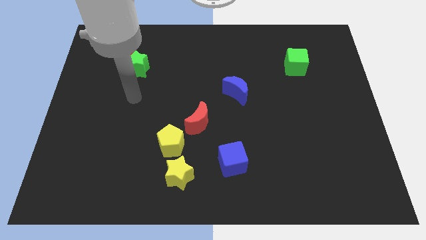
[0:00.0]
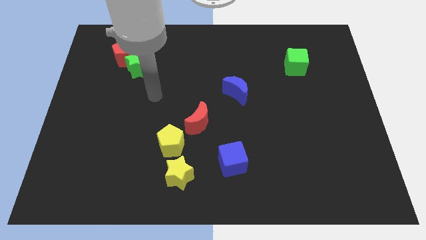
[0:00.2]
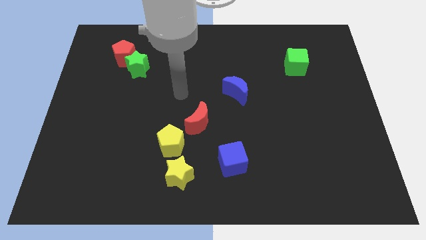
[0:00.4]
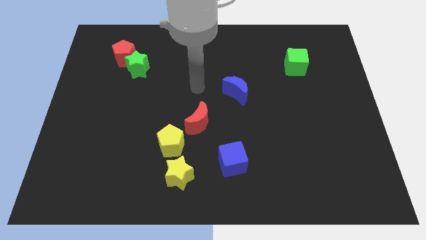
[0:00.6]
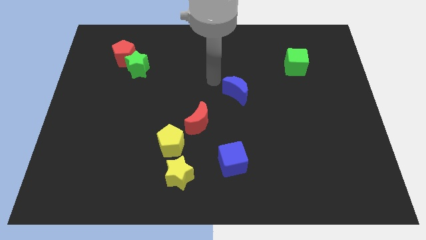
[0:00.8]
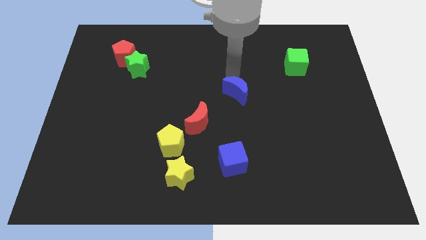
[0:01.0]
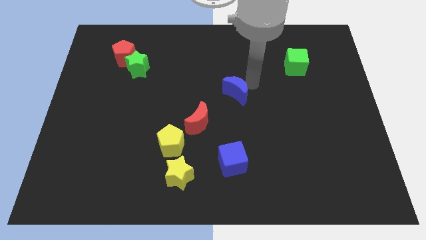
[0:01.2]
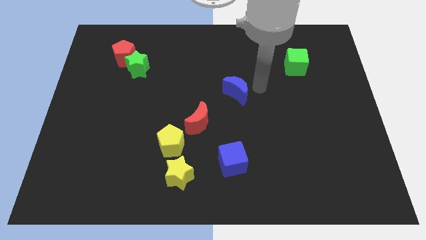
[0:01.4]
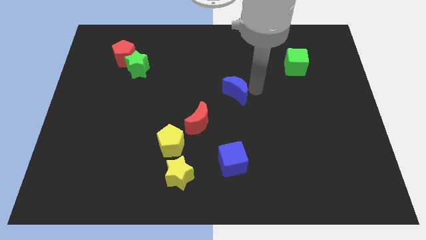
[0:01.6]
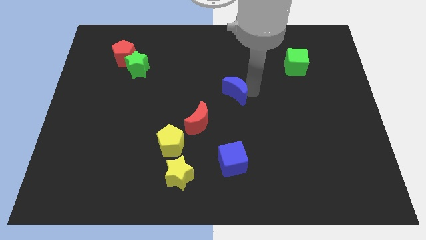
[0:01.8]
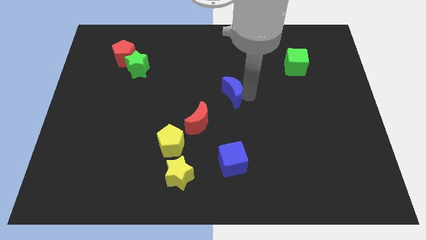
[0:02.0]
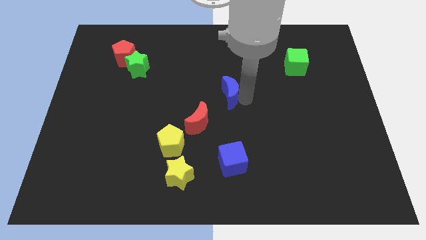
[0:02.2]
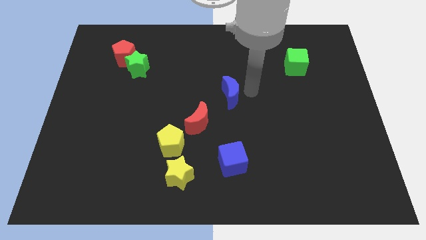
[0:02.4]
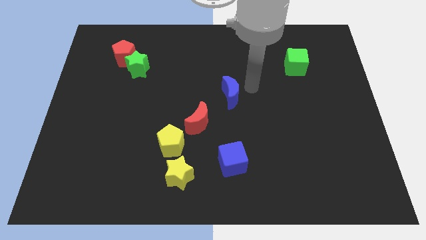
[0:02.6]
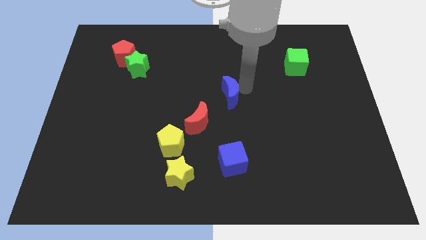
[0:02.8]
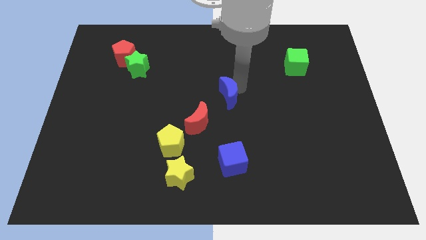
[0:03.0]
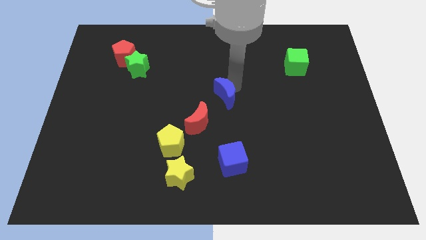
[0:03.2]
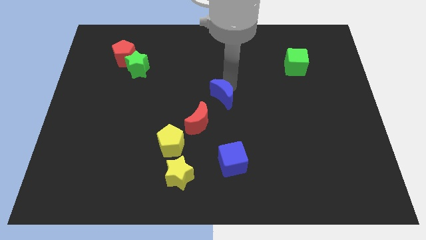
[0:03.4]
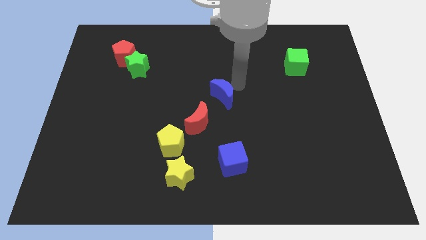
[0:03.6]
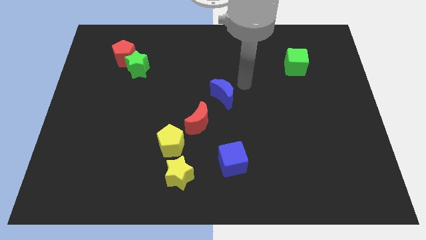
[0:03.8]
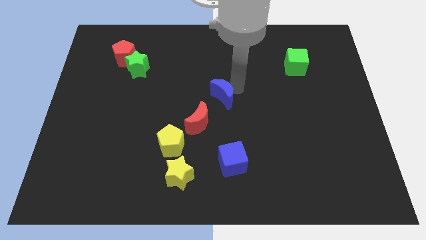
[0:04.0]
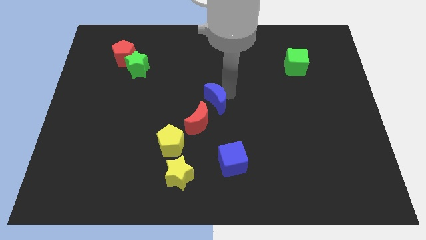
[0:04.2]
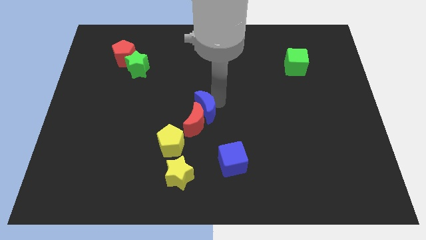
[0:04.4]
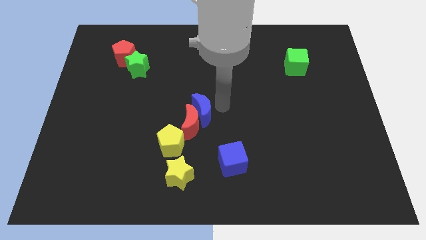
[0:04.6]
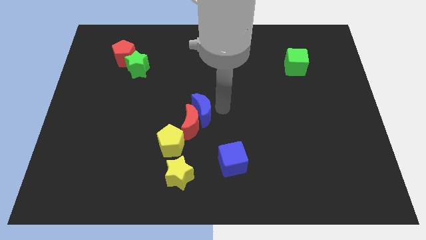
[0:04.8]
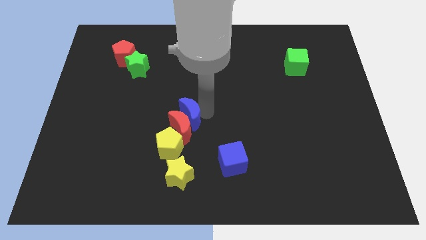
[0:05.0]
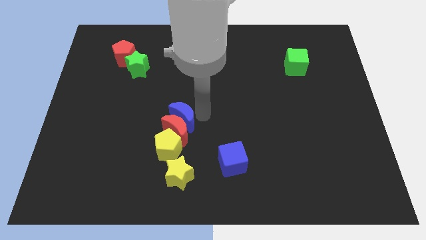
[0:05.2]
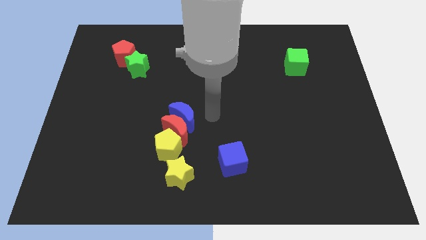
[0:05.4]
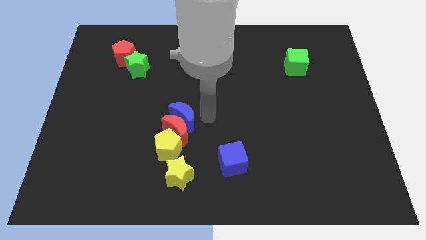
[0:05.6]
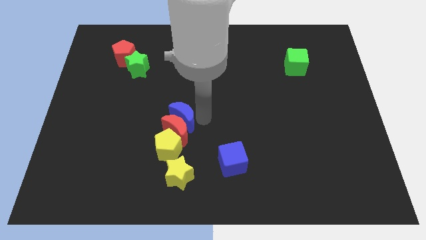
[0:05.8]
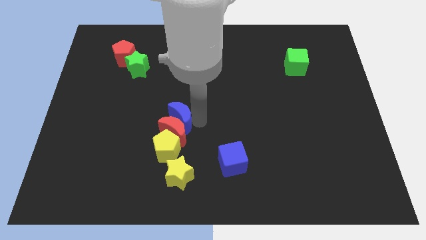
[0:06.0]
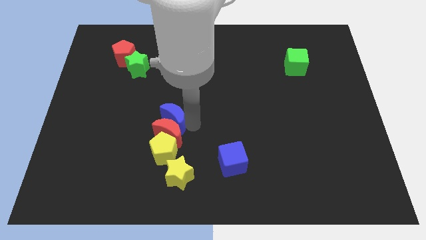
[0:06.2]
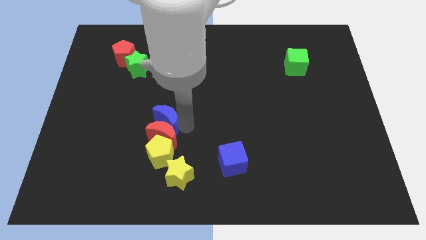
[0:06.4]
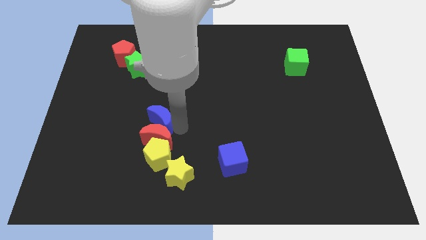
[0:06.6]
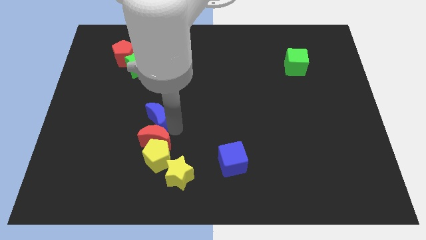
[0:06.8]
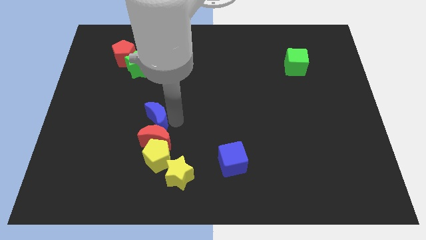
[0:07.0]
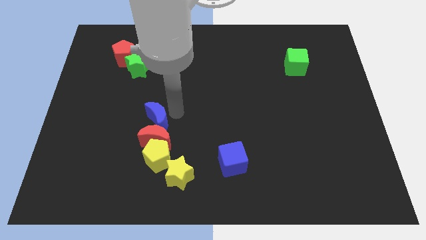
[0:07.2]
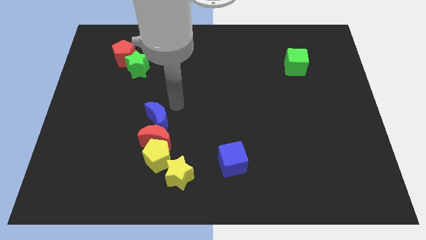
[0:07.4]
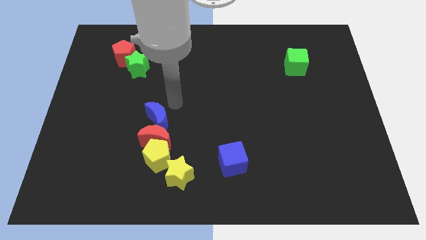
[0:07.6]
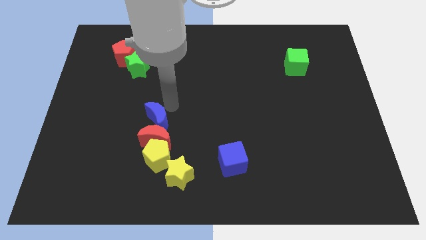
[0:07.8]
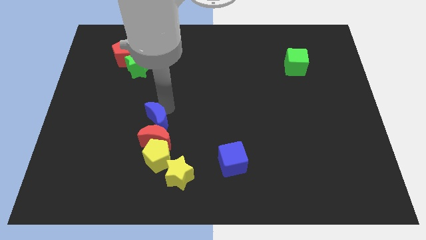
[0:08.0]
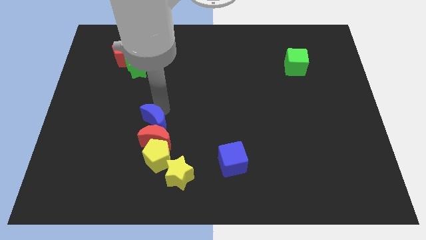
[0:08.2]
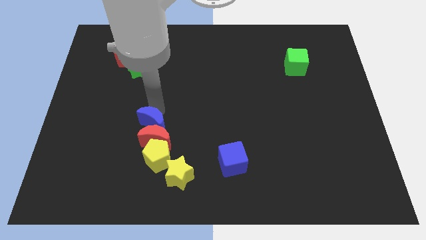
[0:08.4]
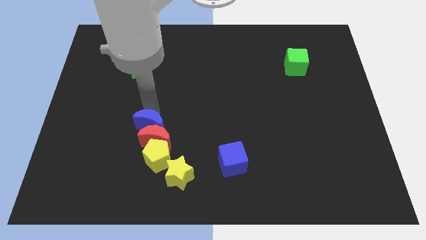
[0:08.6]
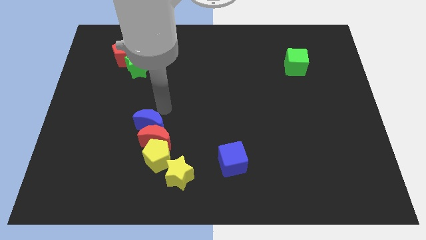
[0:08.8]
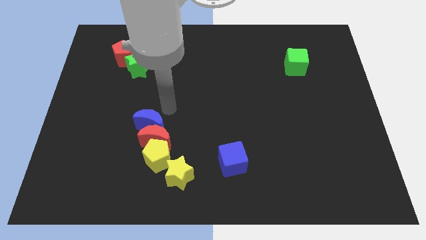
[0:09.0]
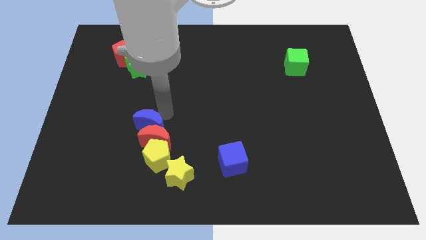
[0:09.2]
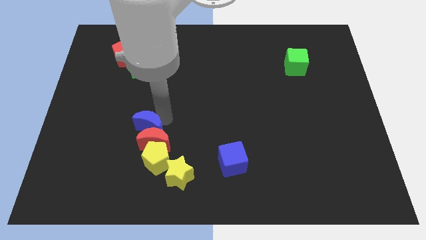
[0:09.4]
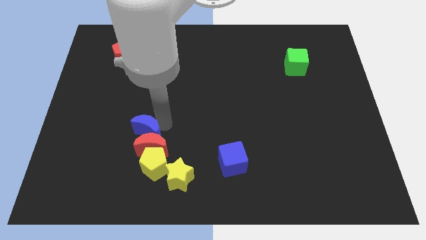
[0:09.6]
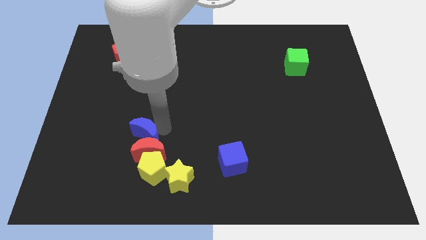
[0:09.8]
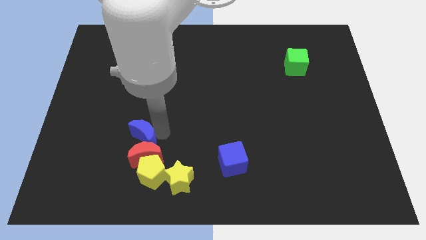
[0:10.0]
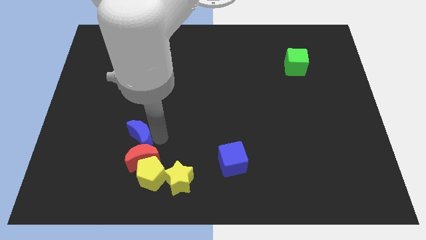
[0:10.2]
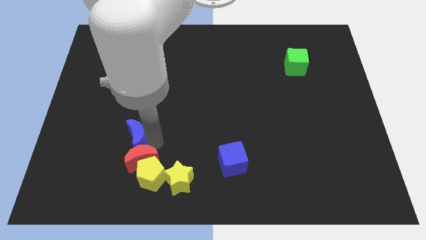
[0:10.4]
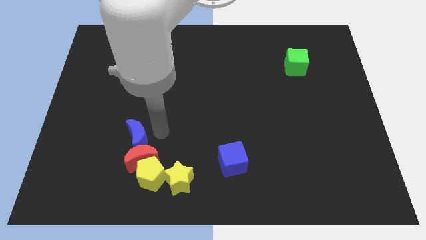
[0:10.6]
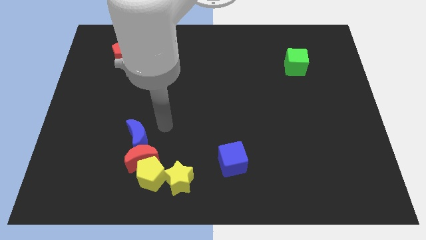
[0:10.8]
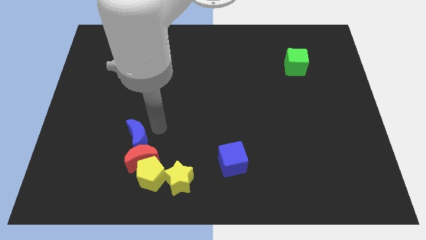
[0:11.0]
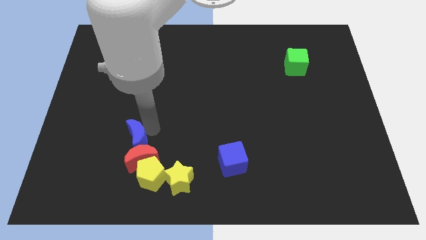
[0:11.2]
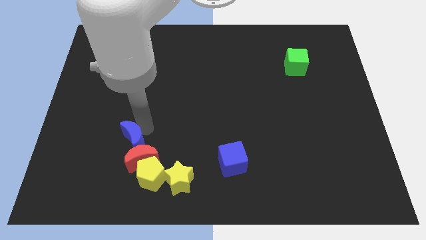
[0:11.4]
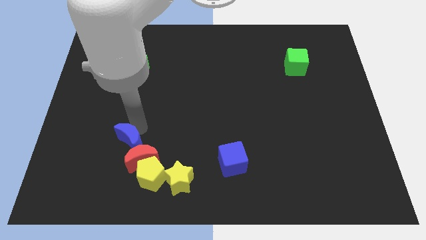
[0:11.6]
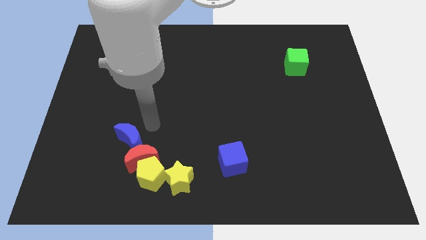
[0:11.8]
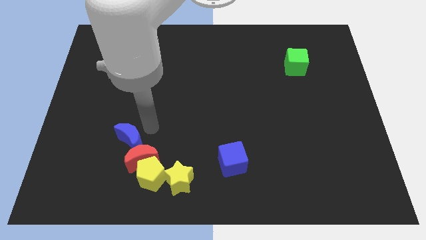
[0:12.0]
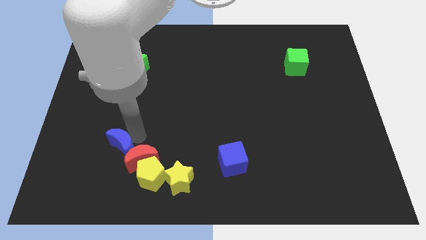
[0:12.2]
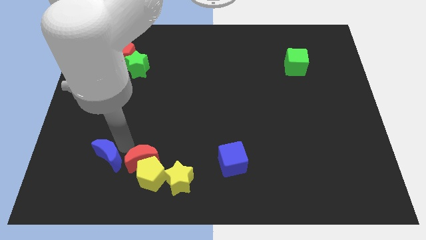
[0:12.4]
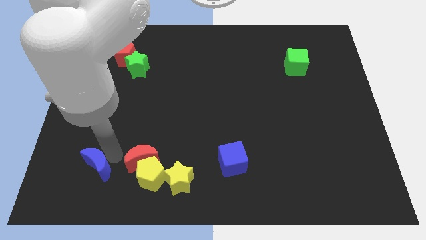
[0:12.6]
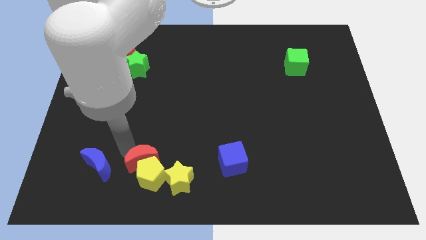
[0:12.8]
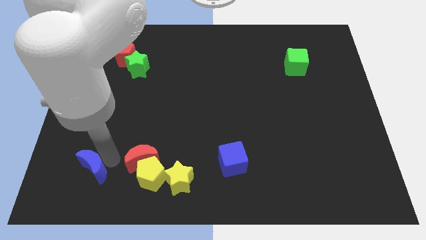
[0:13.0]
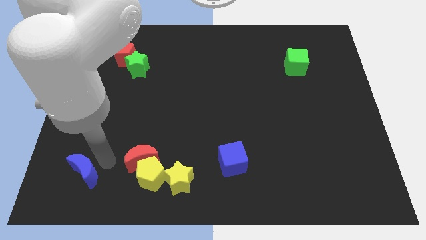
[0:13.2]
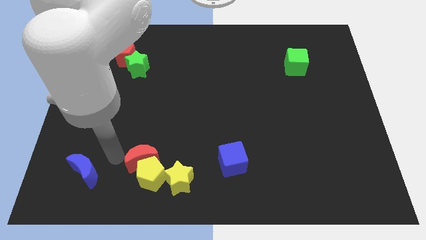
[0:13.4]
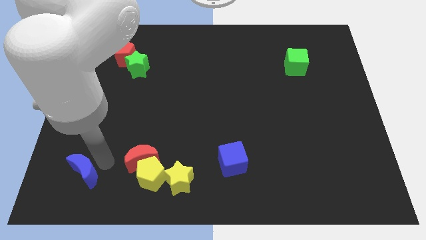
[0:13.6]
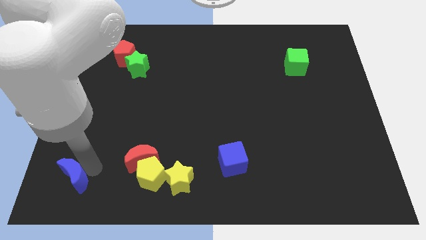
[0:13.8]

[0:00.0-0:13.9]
put the blue moon to the bottom left
